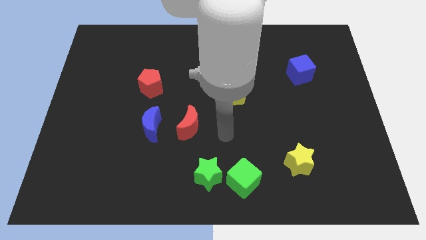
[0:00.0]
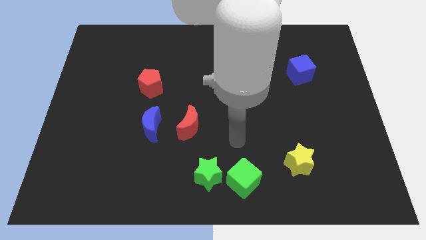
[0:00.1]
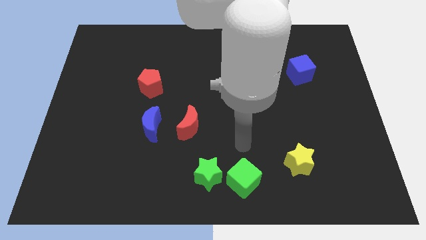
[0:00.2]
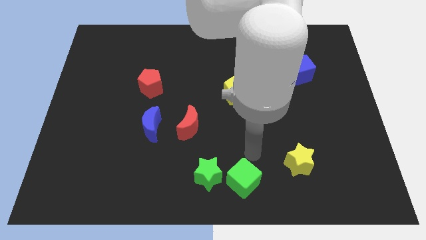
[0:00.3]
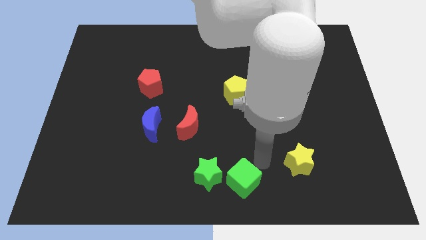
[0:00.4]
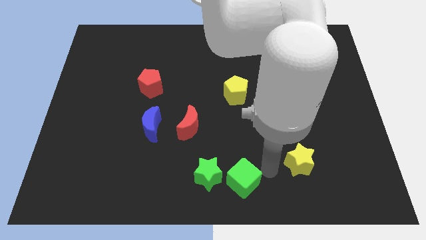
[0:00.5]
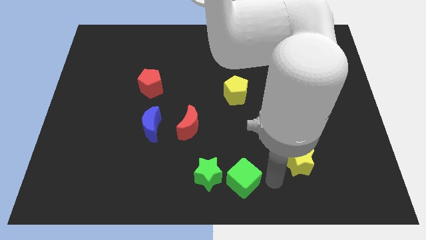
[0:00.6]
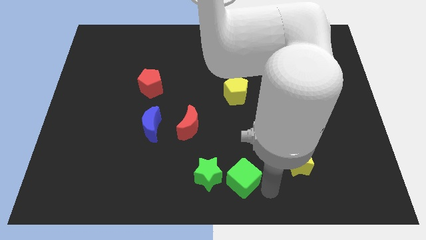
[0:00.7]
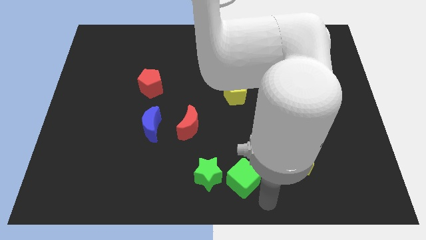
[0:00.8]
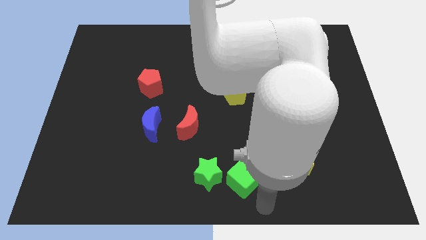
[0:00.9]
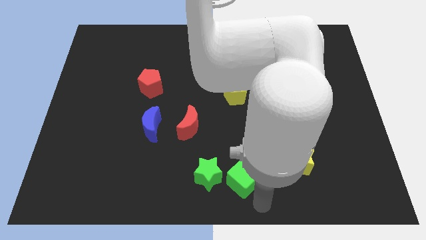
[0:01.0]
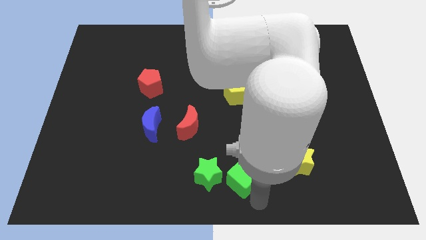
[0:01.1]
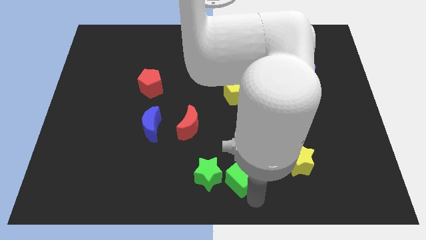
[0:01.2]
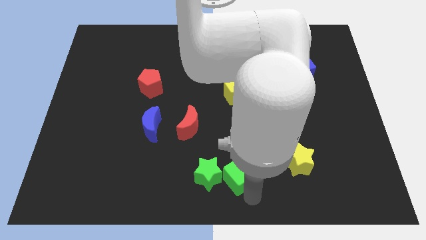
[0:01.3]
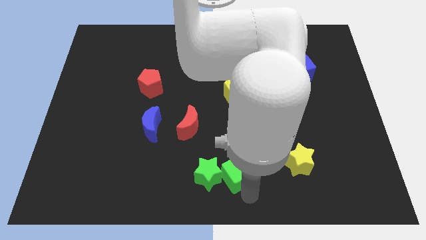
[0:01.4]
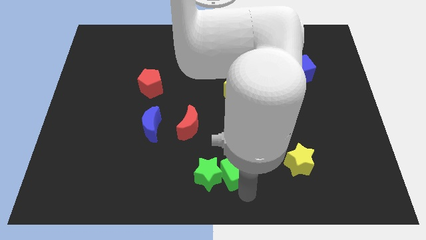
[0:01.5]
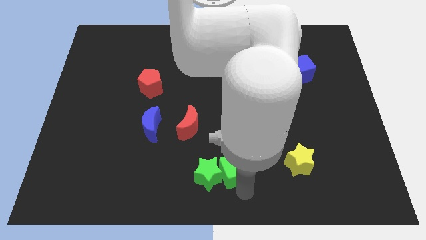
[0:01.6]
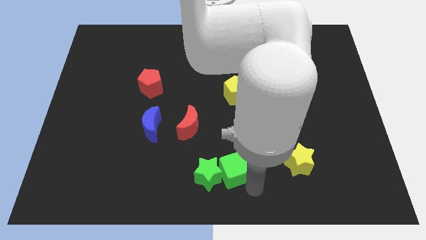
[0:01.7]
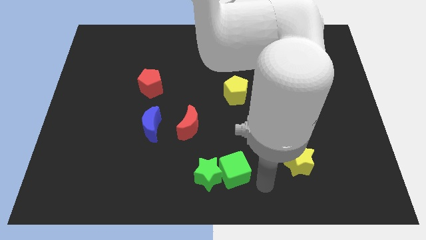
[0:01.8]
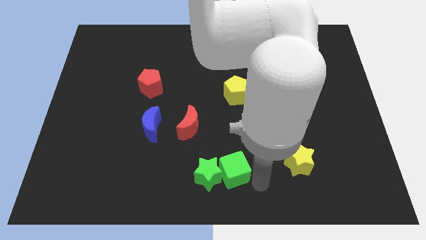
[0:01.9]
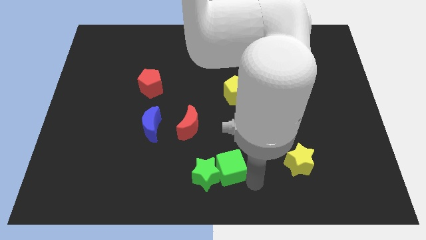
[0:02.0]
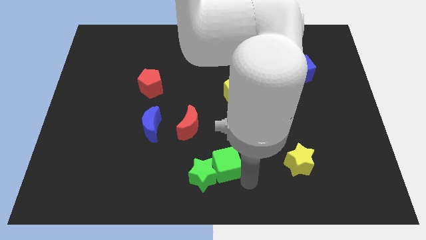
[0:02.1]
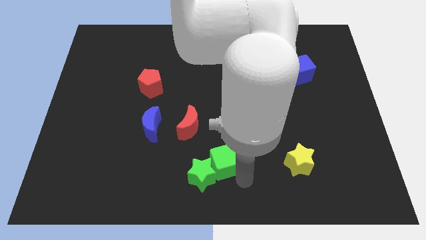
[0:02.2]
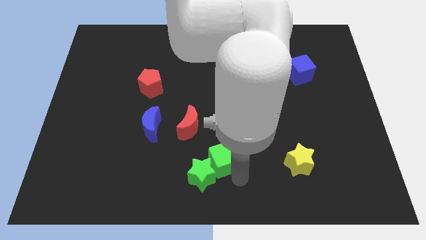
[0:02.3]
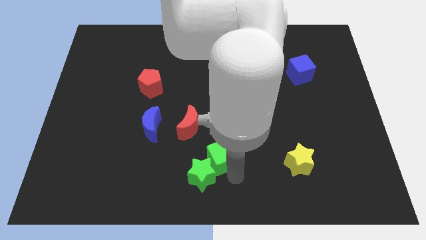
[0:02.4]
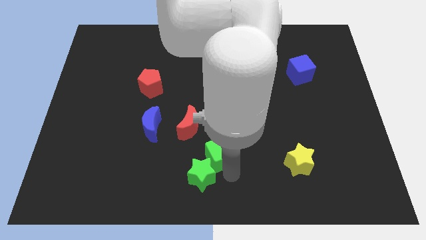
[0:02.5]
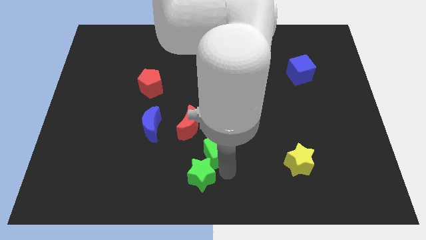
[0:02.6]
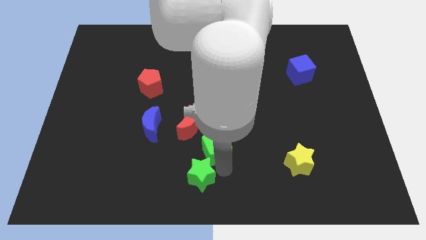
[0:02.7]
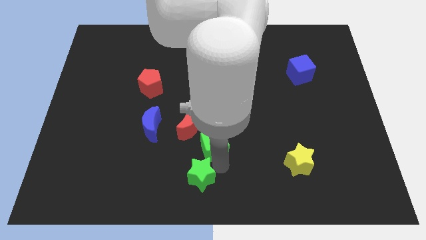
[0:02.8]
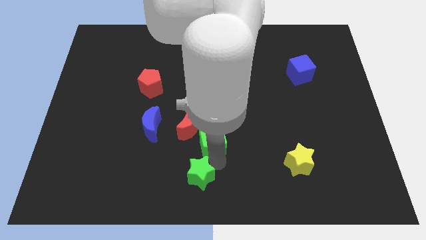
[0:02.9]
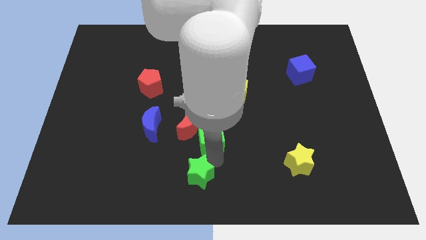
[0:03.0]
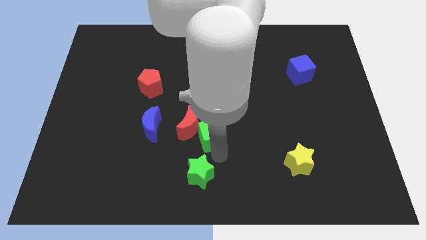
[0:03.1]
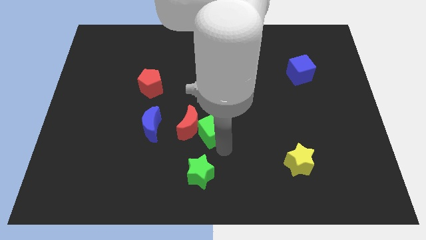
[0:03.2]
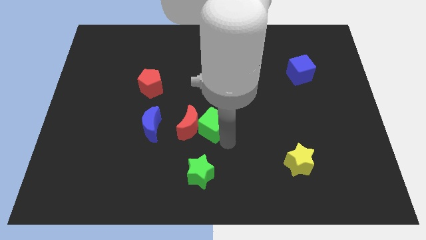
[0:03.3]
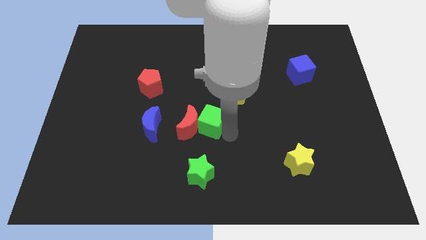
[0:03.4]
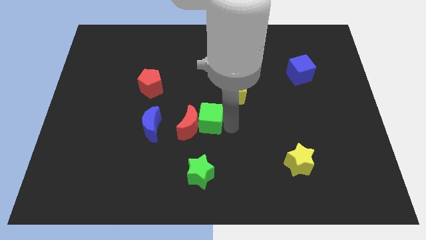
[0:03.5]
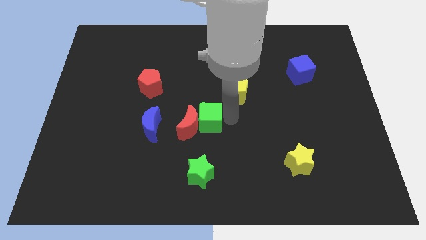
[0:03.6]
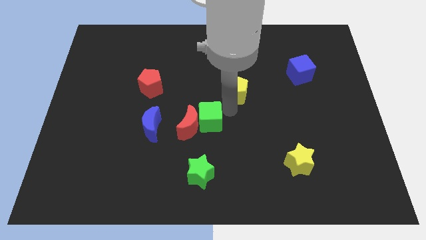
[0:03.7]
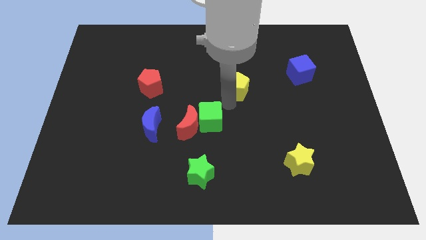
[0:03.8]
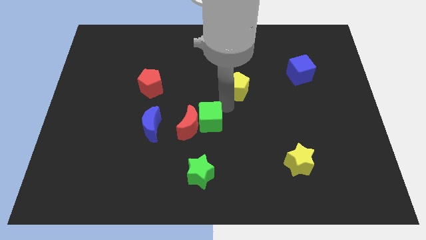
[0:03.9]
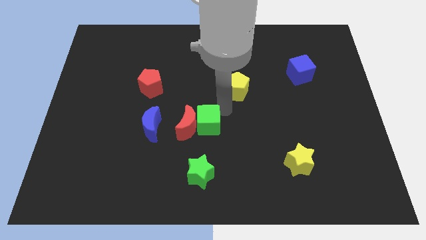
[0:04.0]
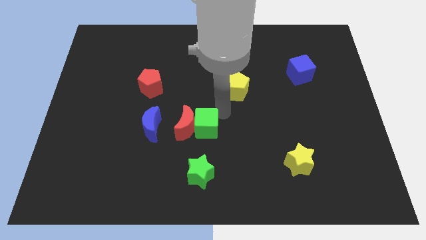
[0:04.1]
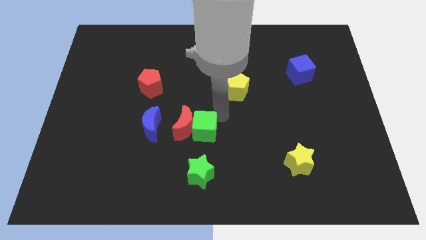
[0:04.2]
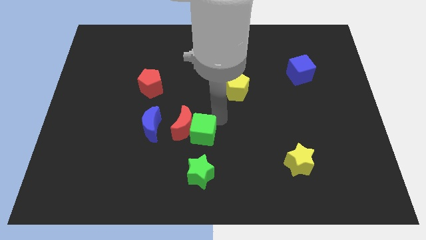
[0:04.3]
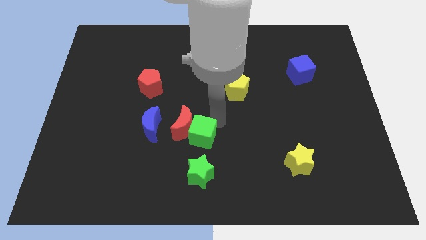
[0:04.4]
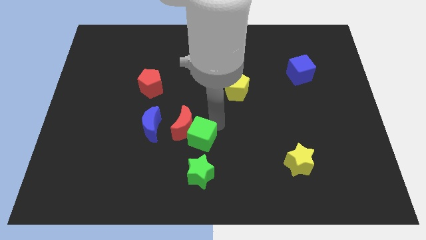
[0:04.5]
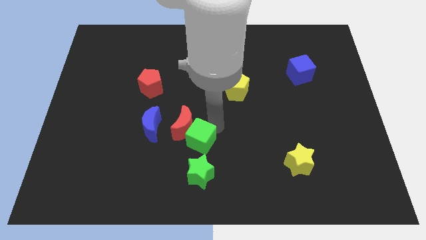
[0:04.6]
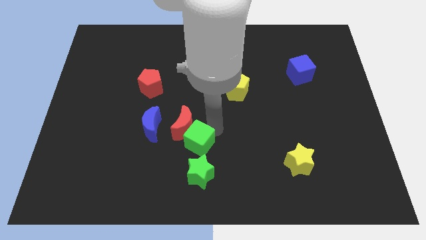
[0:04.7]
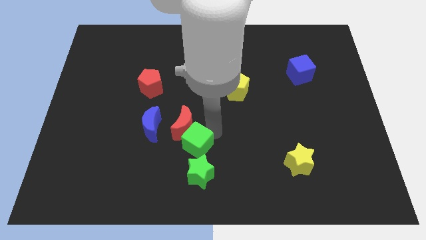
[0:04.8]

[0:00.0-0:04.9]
put the green cube to the top left side of the green star

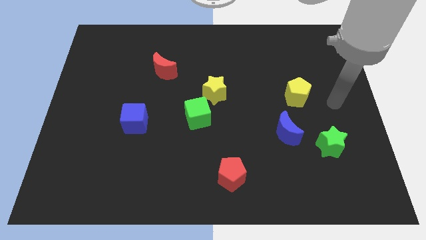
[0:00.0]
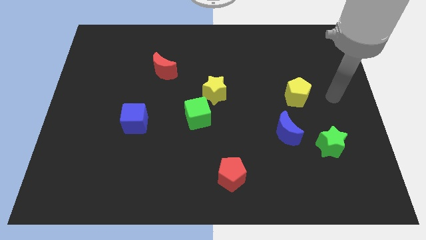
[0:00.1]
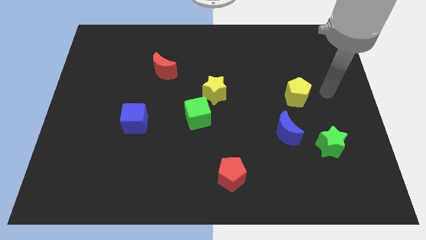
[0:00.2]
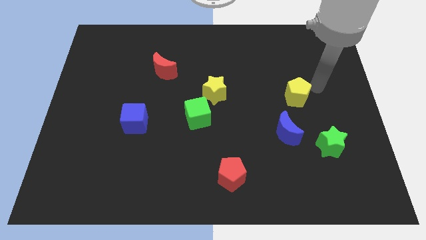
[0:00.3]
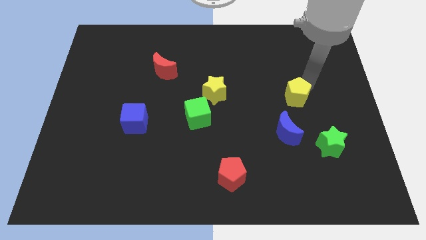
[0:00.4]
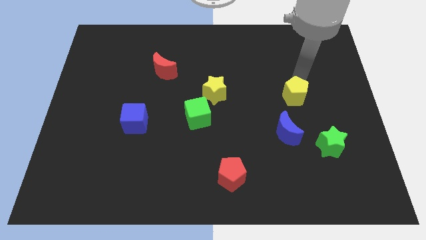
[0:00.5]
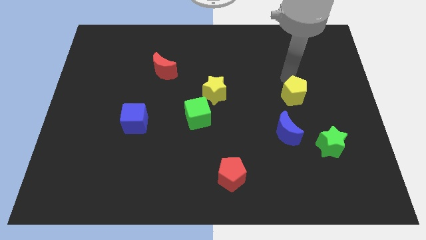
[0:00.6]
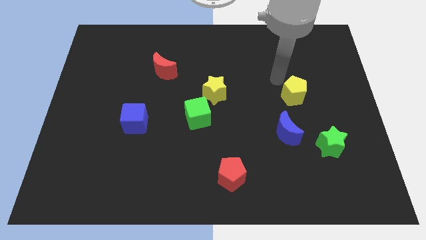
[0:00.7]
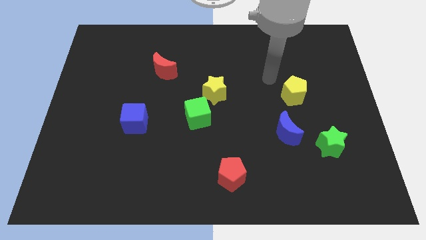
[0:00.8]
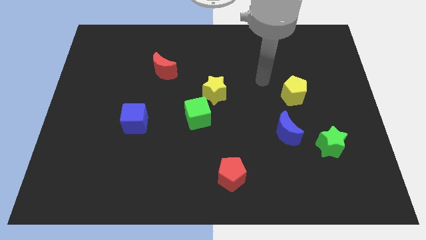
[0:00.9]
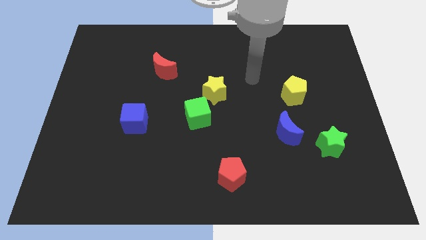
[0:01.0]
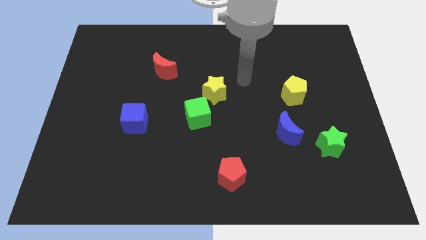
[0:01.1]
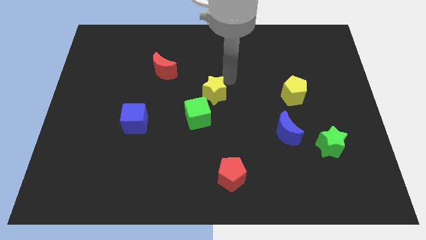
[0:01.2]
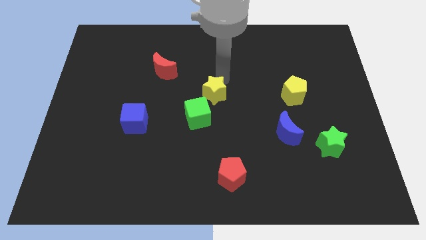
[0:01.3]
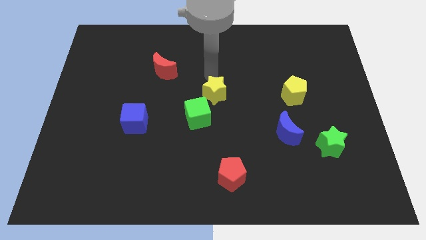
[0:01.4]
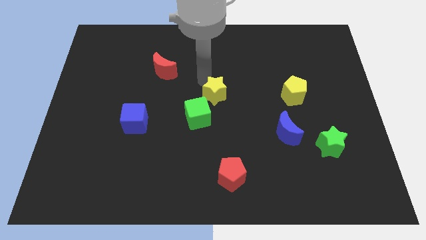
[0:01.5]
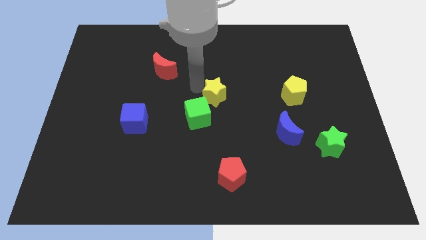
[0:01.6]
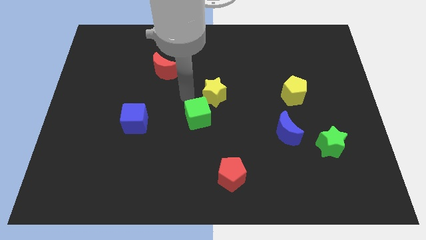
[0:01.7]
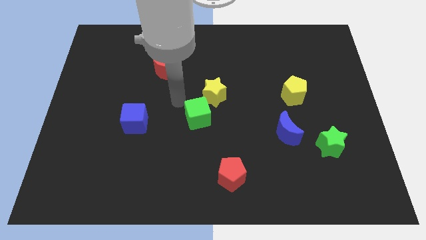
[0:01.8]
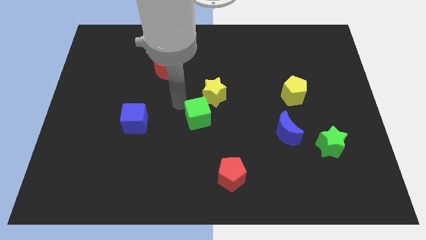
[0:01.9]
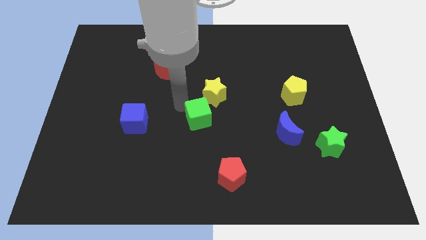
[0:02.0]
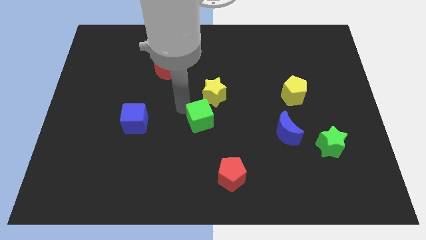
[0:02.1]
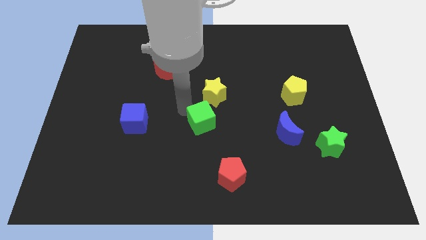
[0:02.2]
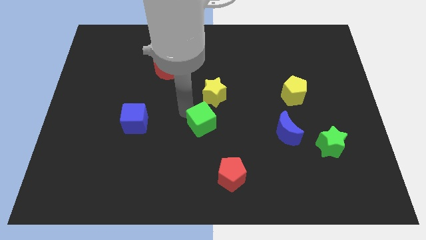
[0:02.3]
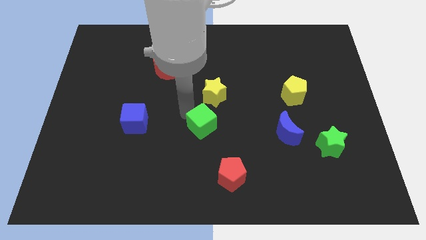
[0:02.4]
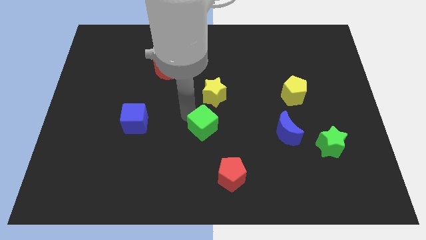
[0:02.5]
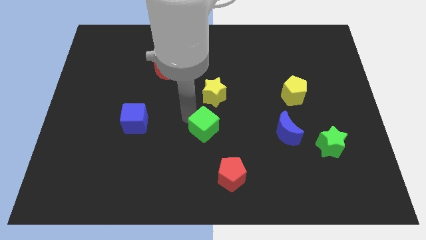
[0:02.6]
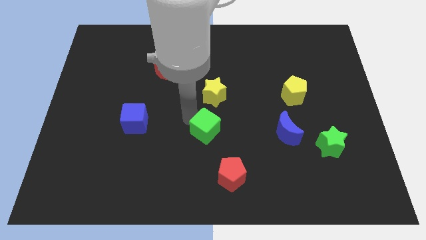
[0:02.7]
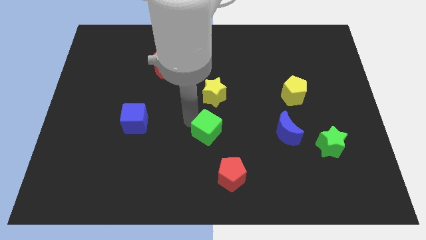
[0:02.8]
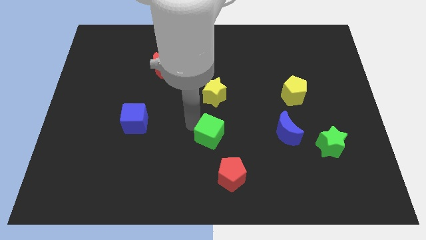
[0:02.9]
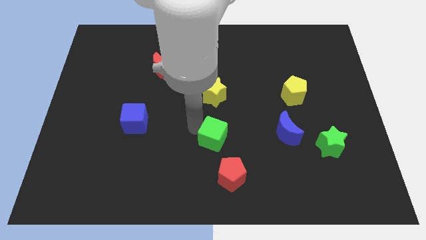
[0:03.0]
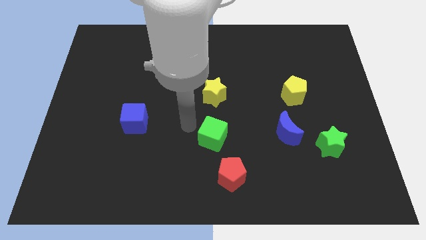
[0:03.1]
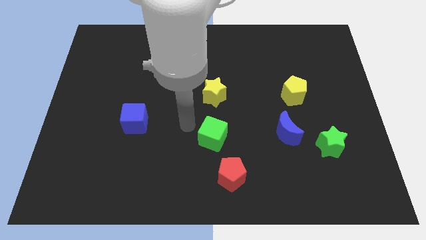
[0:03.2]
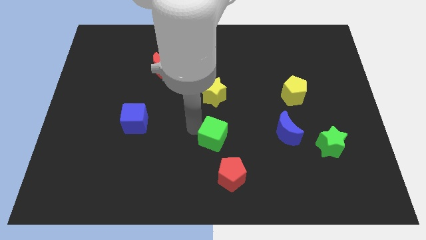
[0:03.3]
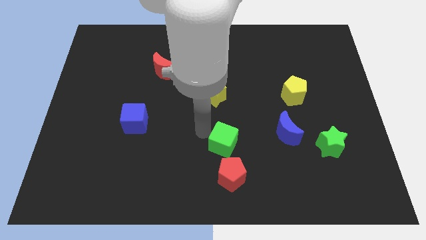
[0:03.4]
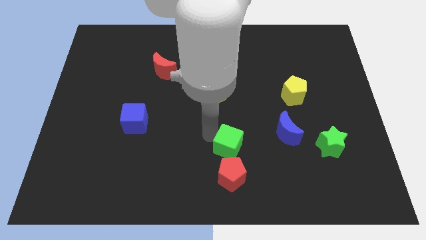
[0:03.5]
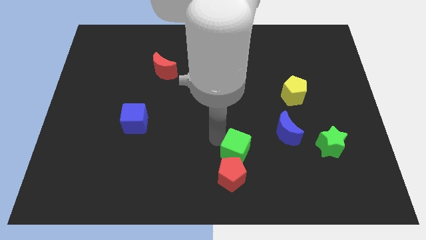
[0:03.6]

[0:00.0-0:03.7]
push the green cube to the top right side of the red pentagon
